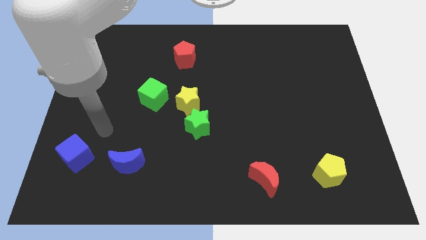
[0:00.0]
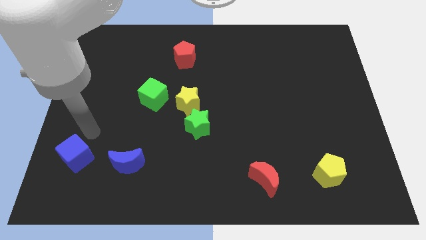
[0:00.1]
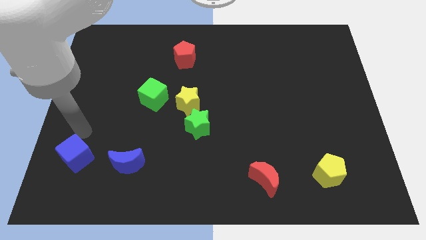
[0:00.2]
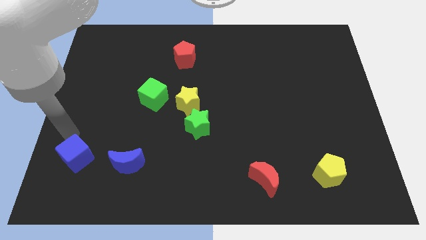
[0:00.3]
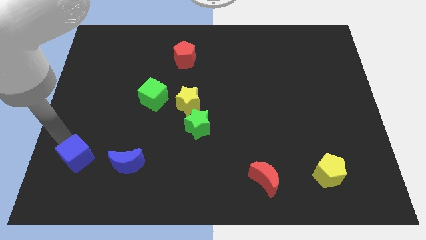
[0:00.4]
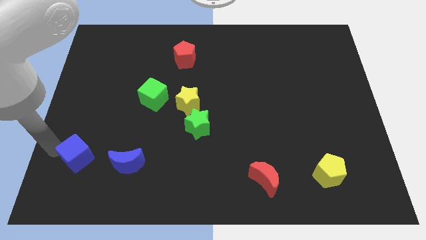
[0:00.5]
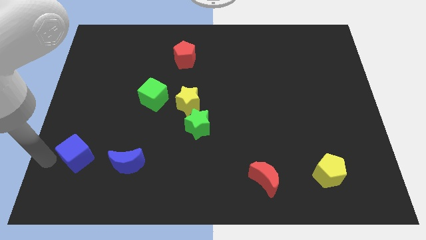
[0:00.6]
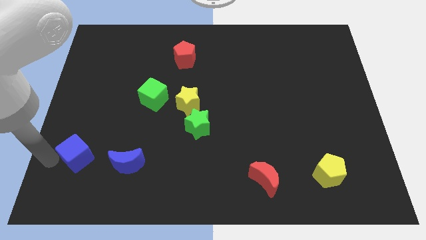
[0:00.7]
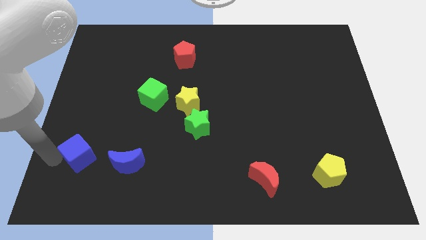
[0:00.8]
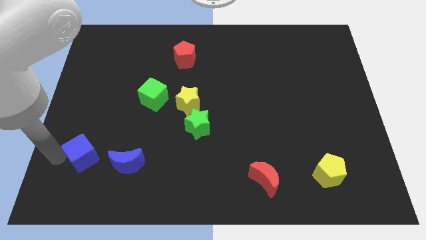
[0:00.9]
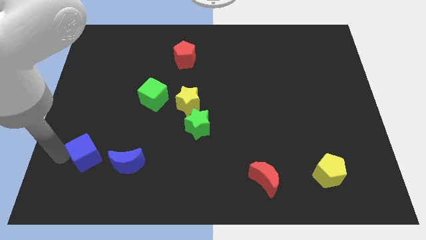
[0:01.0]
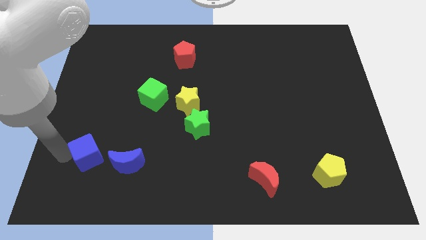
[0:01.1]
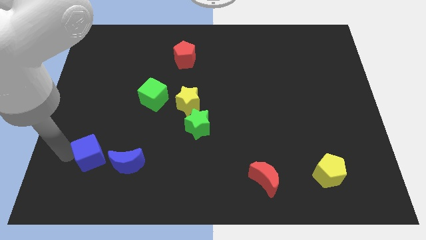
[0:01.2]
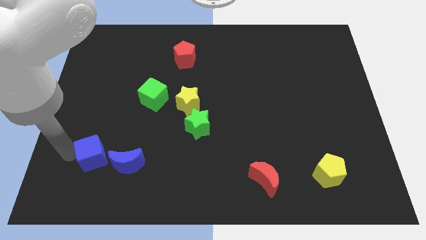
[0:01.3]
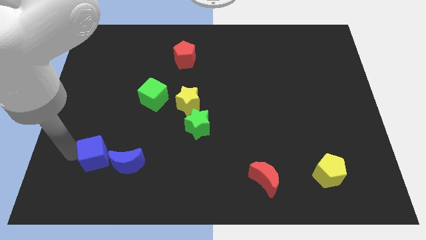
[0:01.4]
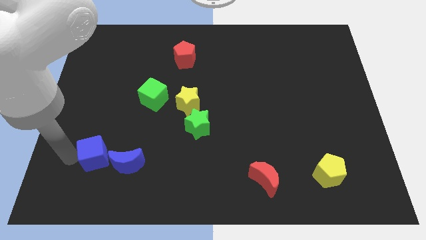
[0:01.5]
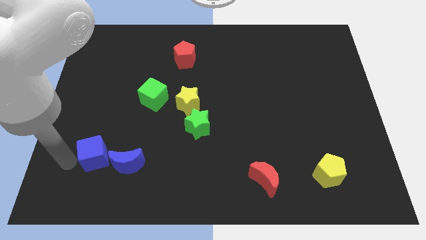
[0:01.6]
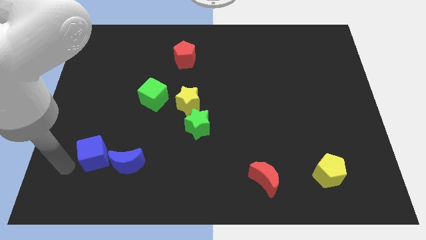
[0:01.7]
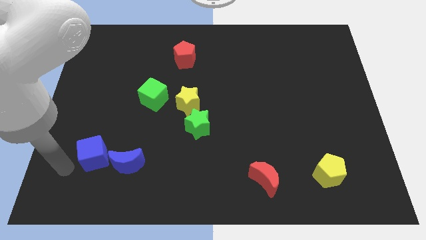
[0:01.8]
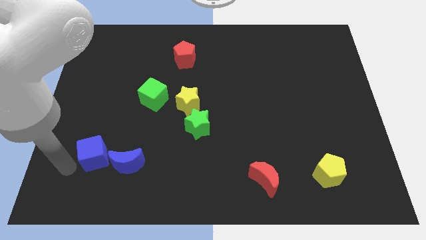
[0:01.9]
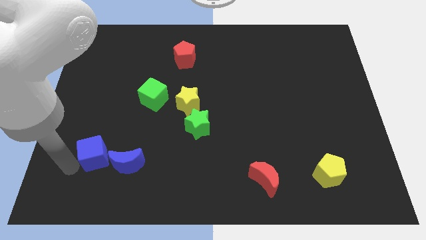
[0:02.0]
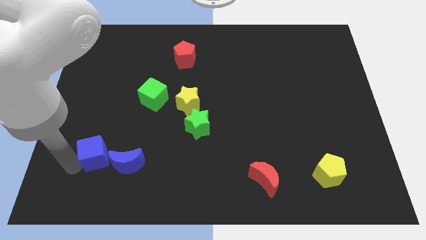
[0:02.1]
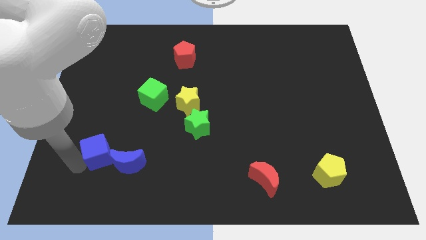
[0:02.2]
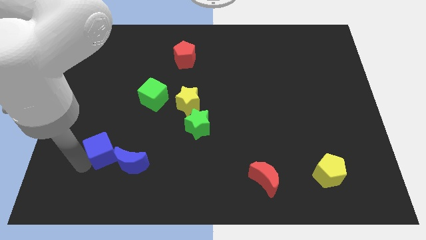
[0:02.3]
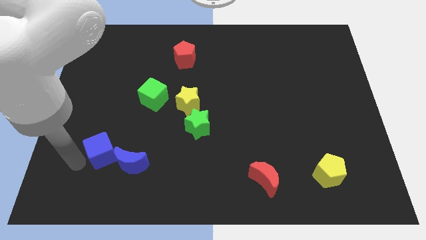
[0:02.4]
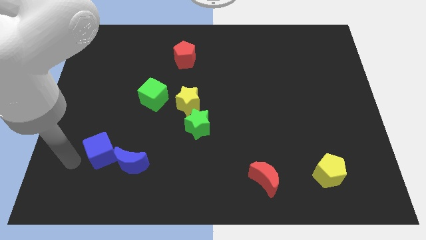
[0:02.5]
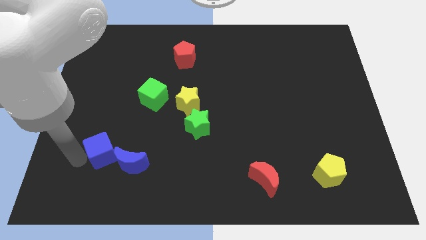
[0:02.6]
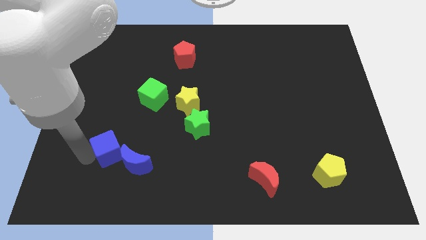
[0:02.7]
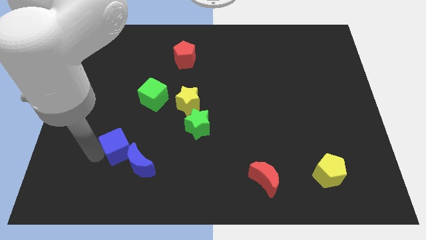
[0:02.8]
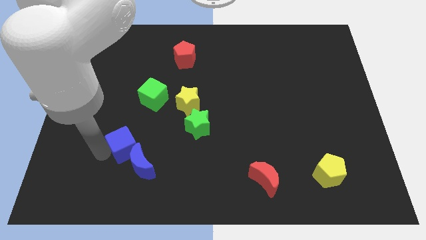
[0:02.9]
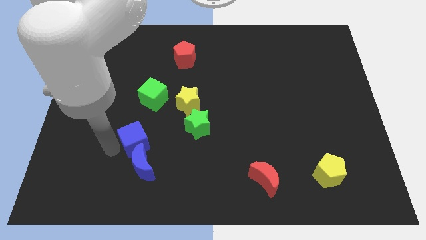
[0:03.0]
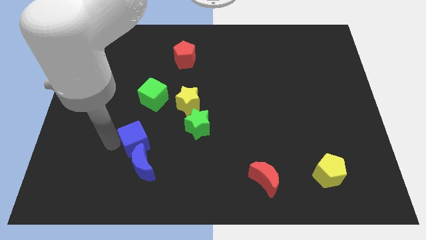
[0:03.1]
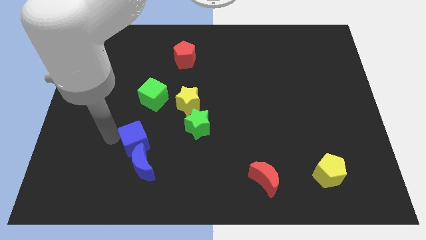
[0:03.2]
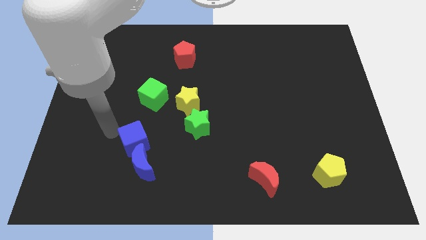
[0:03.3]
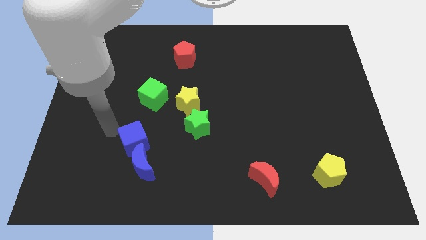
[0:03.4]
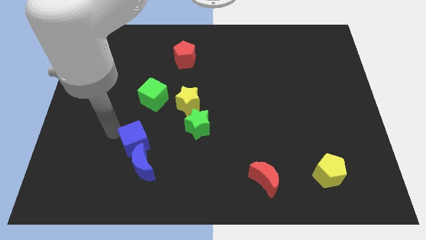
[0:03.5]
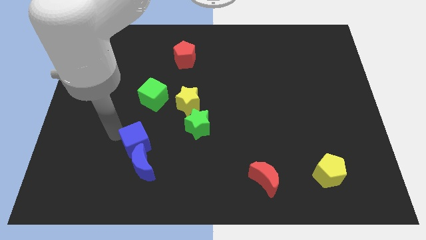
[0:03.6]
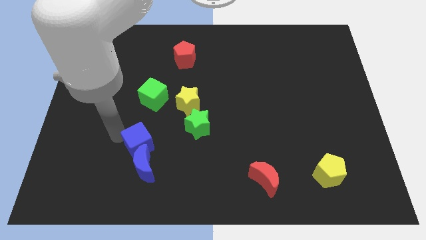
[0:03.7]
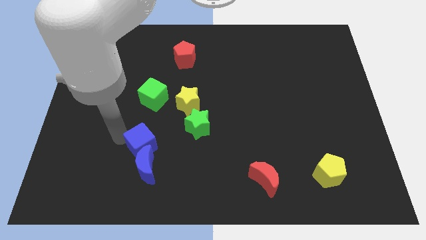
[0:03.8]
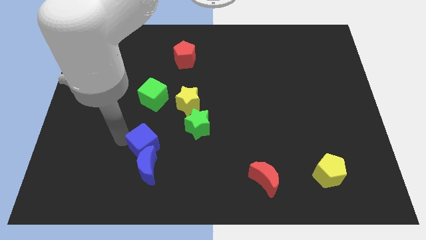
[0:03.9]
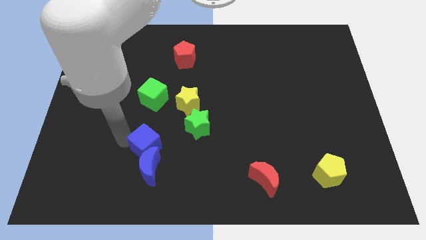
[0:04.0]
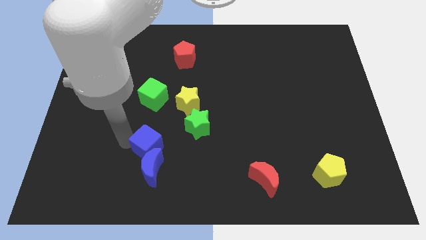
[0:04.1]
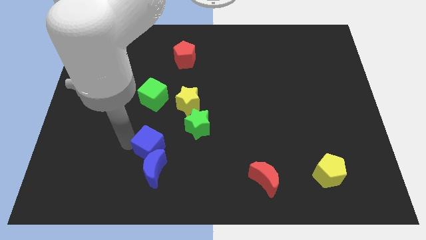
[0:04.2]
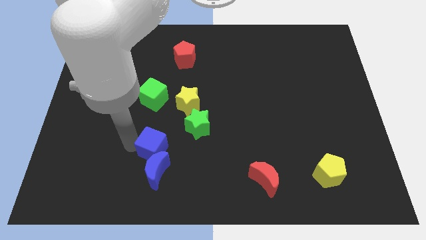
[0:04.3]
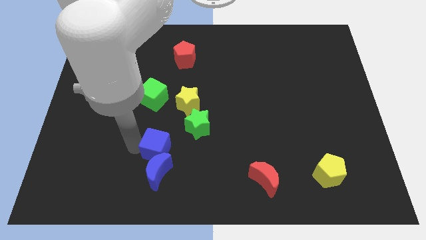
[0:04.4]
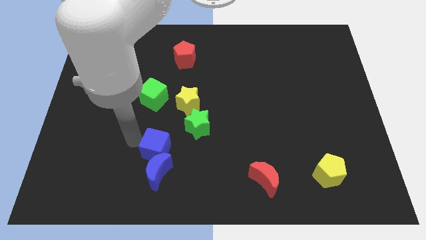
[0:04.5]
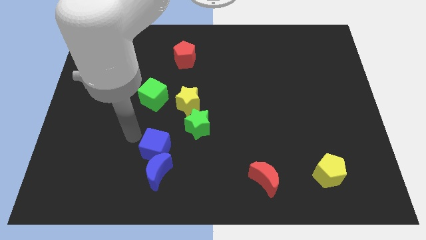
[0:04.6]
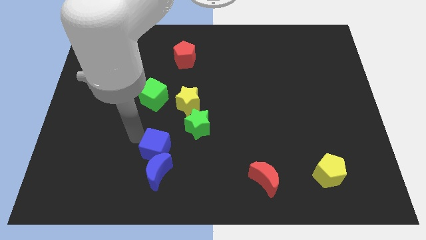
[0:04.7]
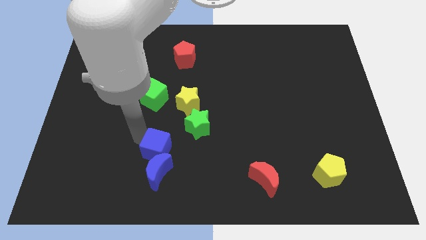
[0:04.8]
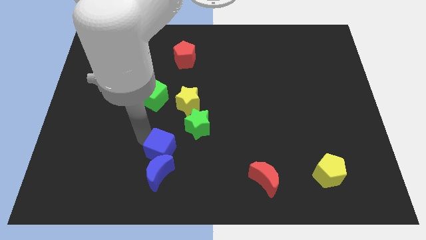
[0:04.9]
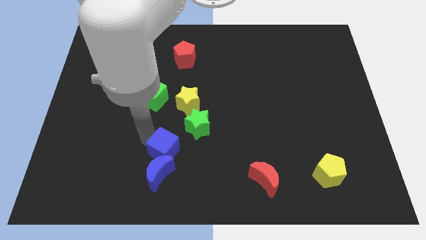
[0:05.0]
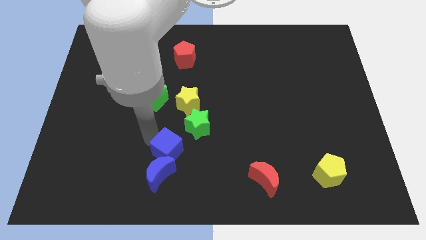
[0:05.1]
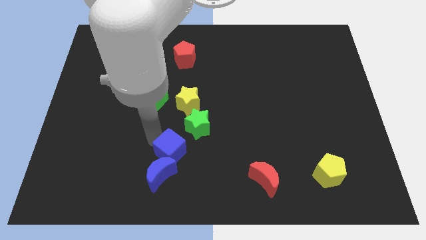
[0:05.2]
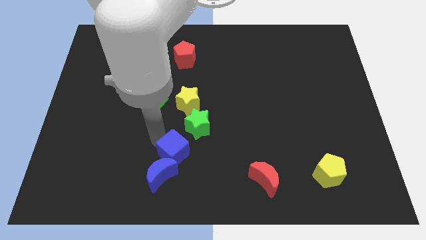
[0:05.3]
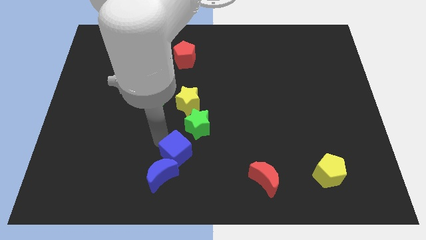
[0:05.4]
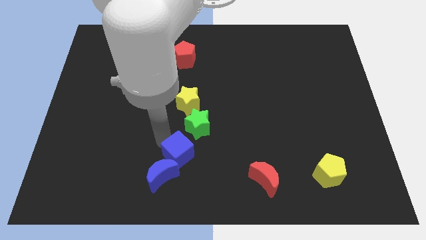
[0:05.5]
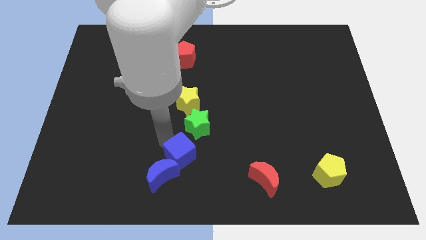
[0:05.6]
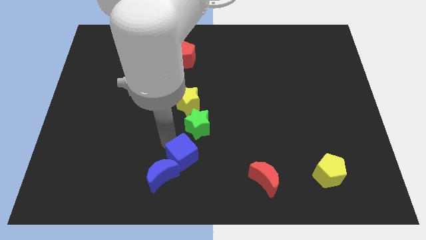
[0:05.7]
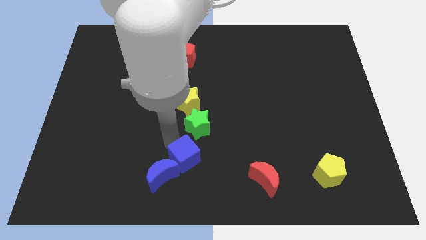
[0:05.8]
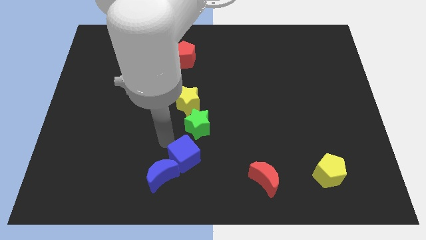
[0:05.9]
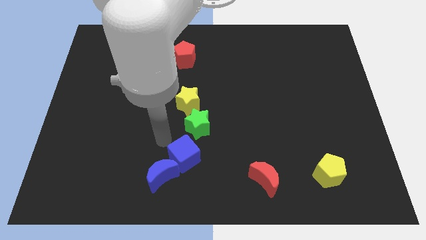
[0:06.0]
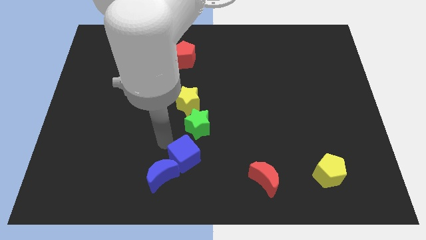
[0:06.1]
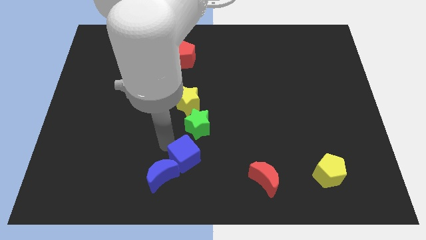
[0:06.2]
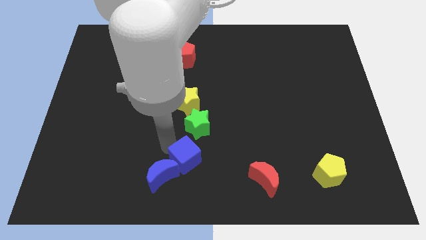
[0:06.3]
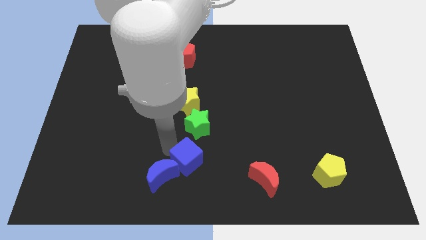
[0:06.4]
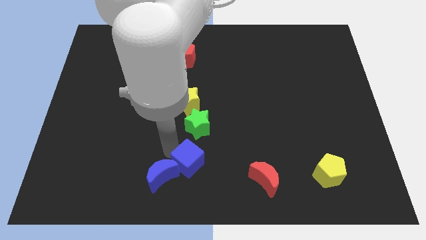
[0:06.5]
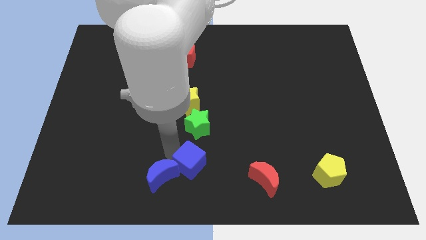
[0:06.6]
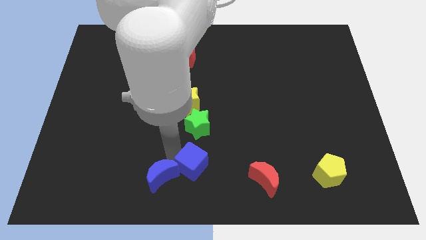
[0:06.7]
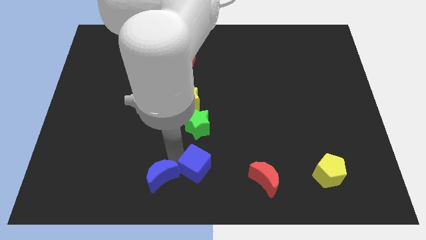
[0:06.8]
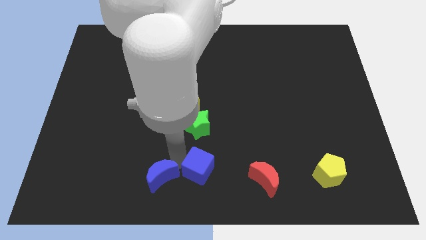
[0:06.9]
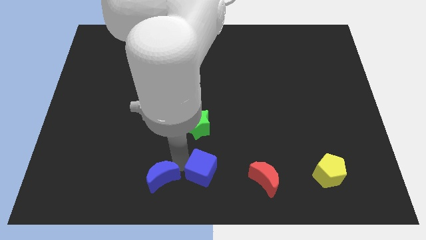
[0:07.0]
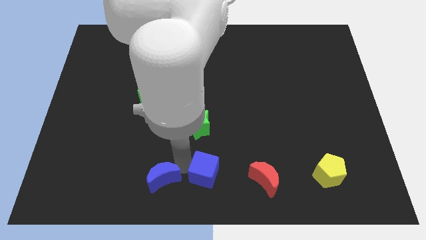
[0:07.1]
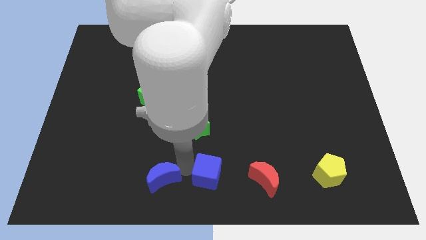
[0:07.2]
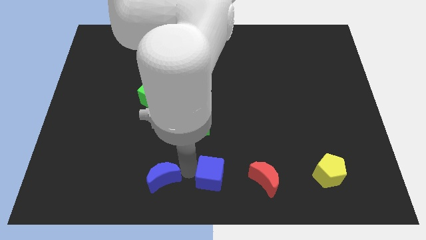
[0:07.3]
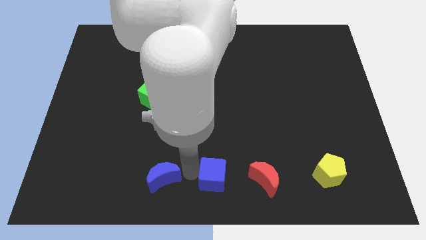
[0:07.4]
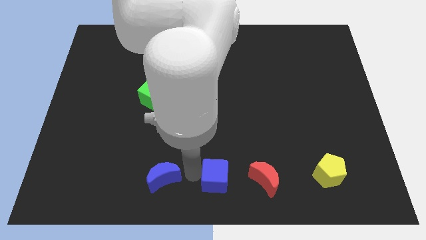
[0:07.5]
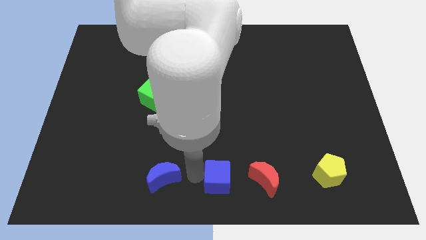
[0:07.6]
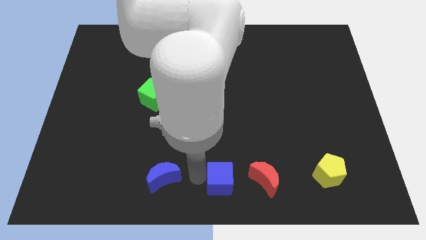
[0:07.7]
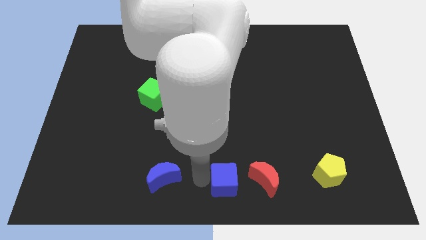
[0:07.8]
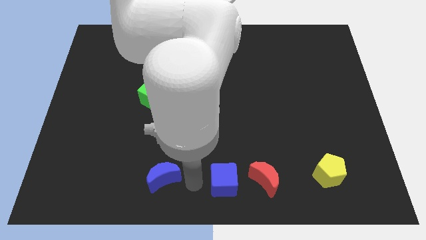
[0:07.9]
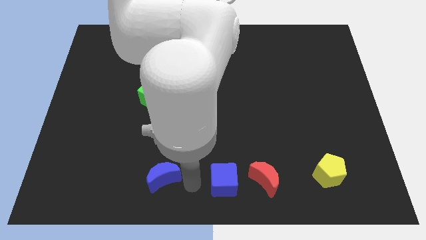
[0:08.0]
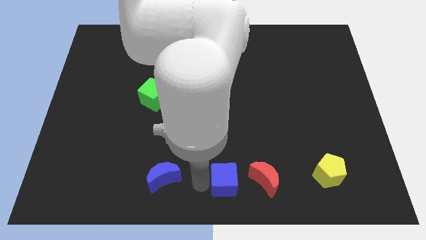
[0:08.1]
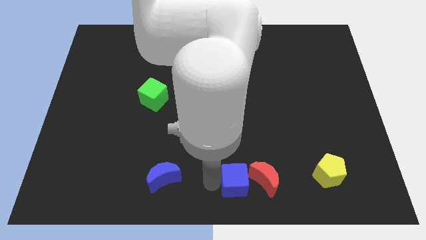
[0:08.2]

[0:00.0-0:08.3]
push the blue cube towards the red moon
